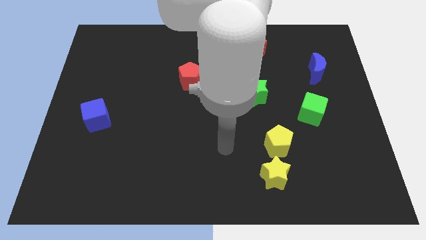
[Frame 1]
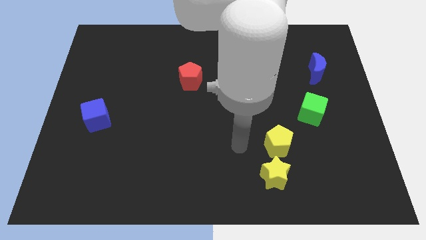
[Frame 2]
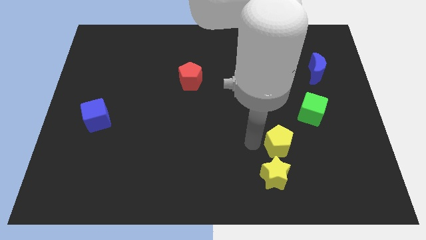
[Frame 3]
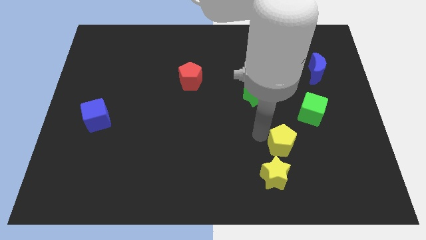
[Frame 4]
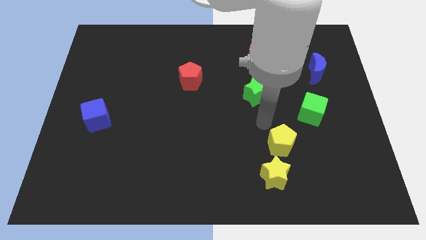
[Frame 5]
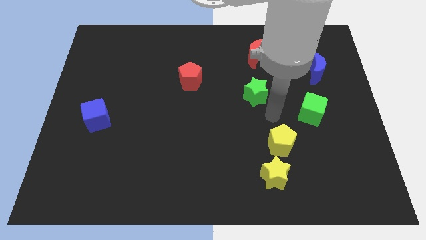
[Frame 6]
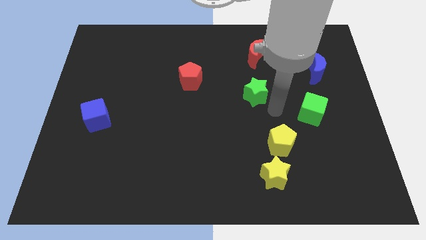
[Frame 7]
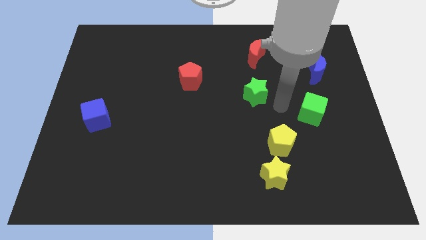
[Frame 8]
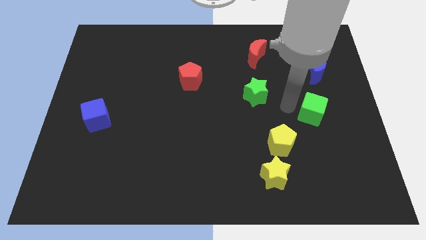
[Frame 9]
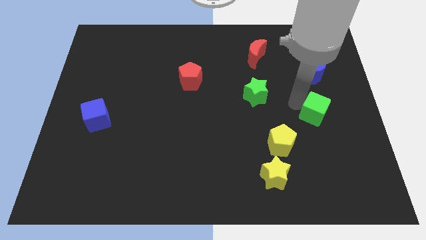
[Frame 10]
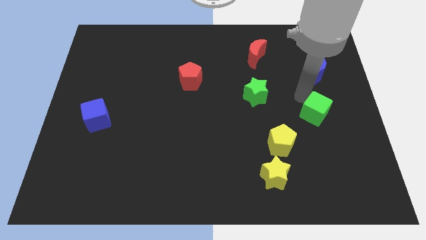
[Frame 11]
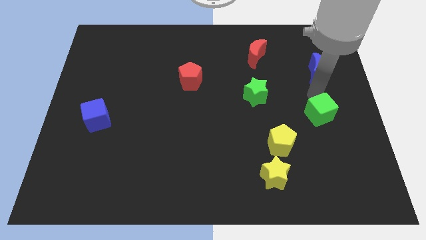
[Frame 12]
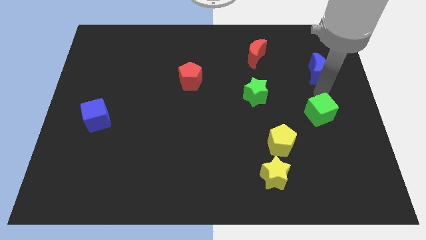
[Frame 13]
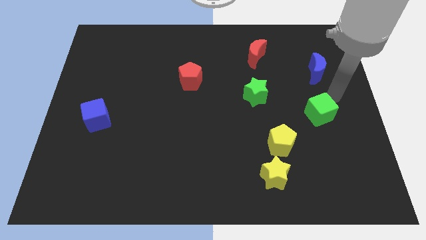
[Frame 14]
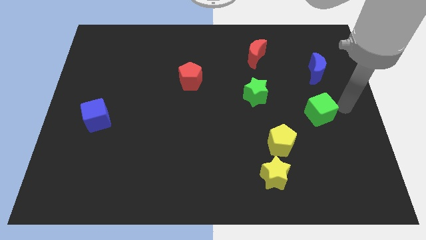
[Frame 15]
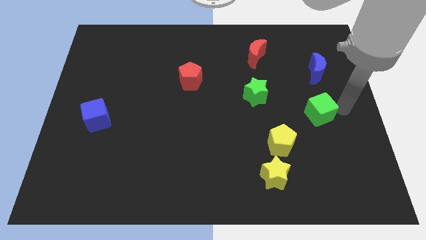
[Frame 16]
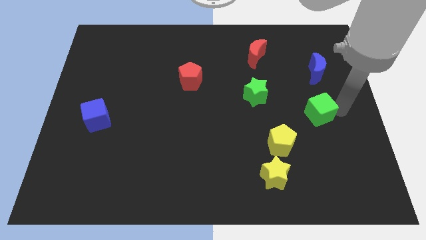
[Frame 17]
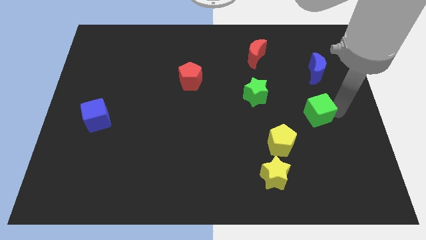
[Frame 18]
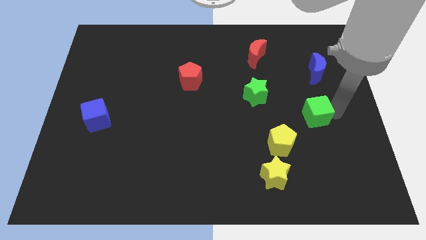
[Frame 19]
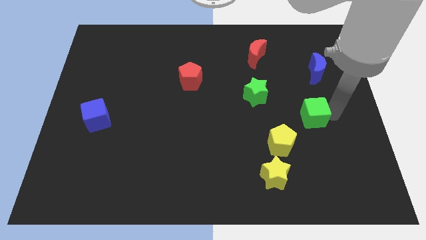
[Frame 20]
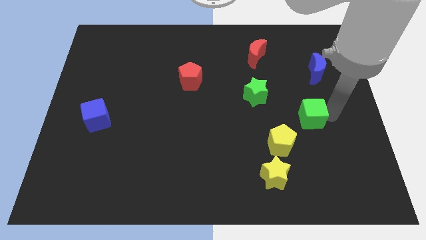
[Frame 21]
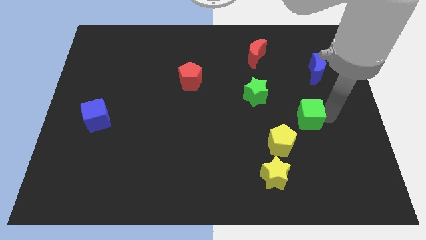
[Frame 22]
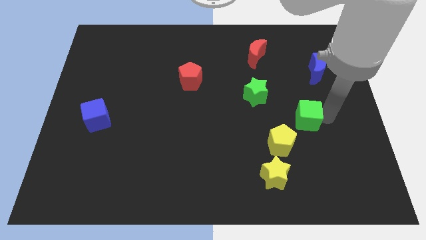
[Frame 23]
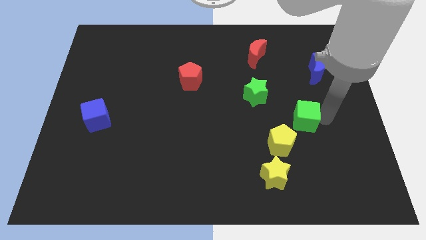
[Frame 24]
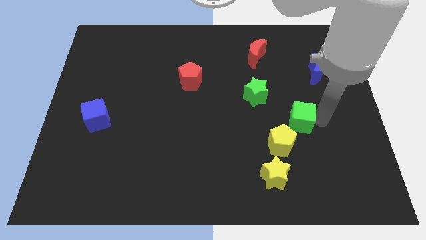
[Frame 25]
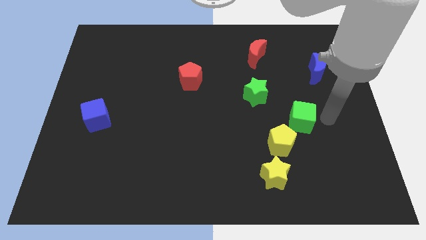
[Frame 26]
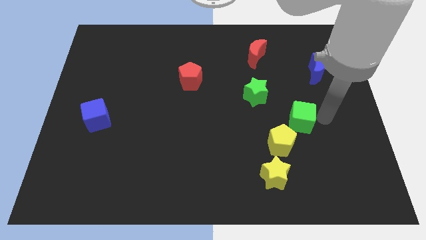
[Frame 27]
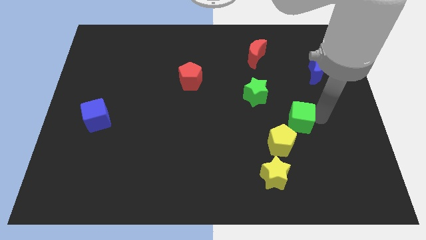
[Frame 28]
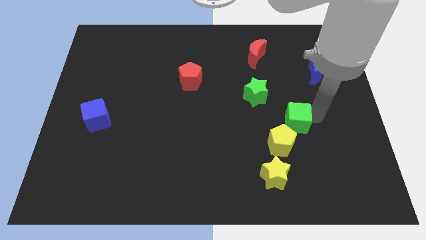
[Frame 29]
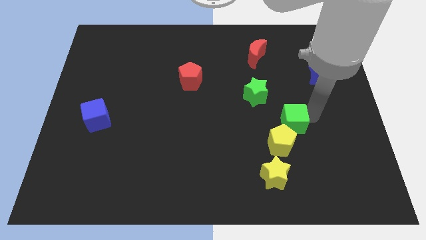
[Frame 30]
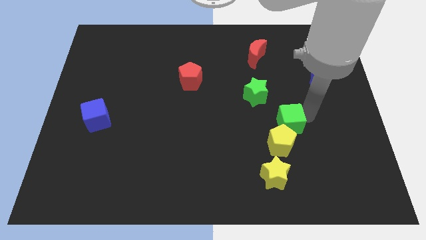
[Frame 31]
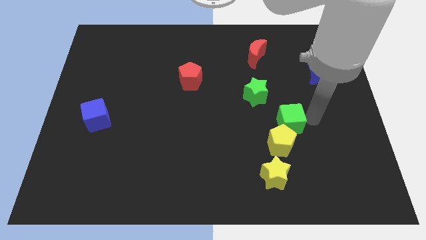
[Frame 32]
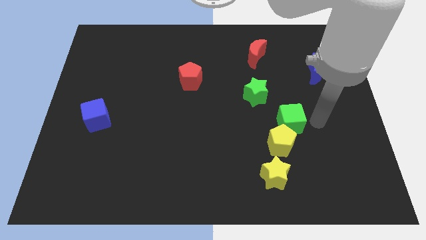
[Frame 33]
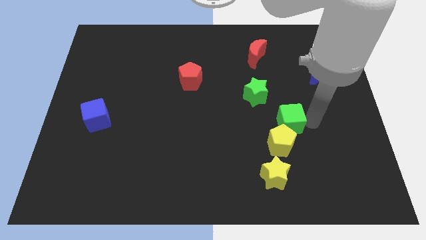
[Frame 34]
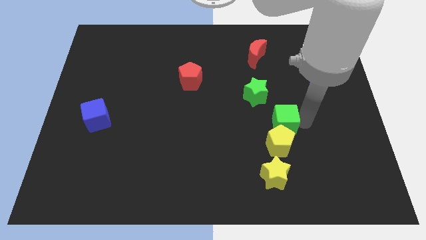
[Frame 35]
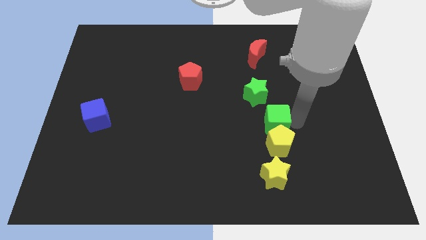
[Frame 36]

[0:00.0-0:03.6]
slide the green cube downwards and then to the left a little

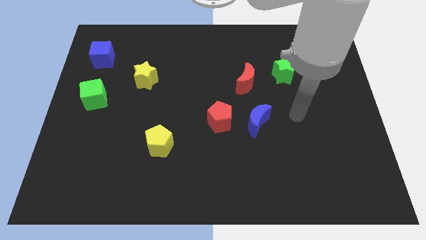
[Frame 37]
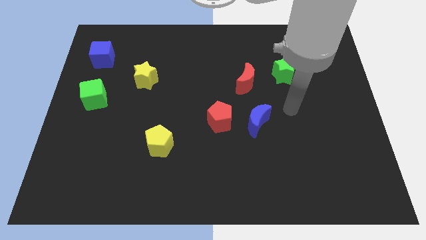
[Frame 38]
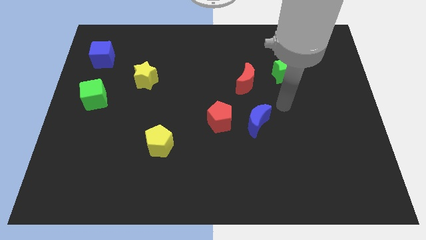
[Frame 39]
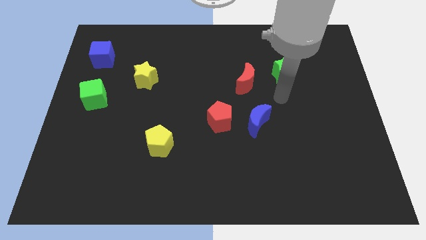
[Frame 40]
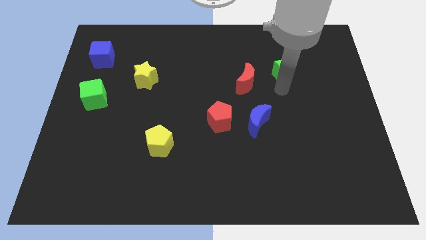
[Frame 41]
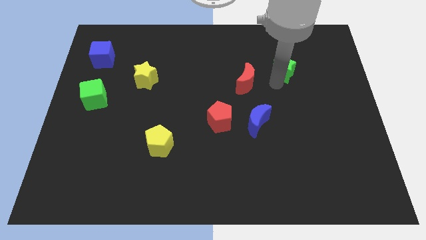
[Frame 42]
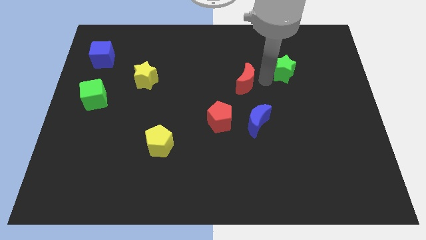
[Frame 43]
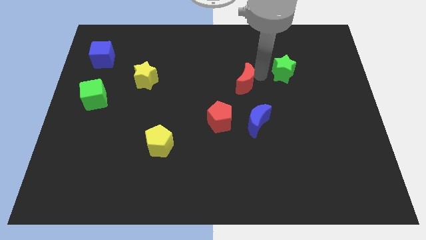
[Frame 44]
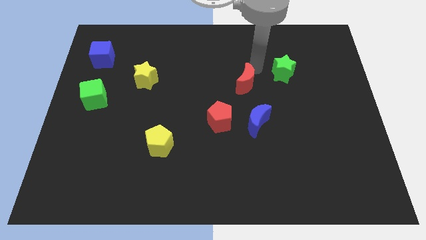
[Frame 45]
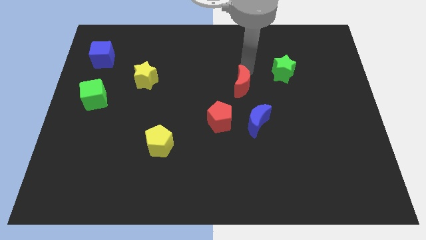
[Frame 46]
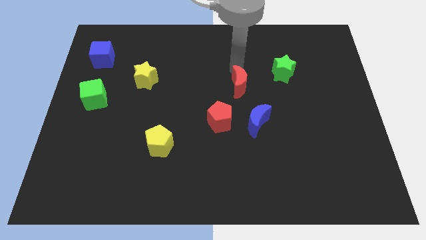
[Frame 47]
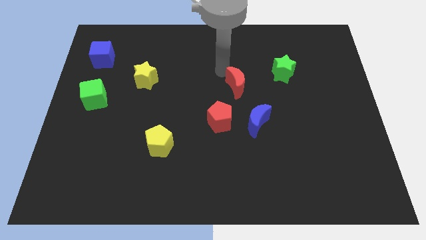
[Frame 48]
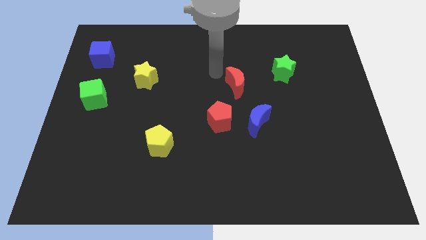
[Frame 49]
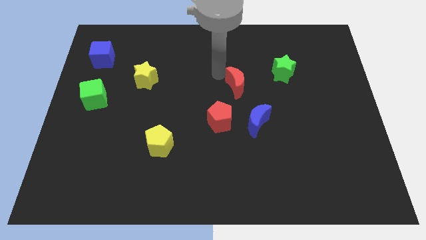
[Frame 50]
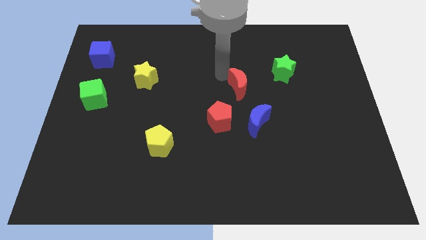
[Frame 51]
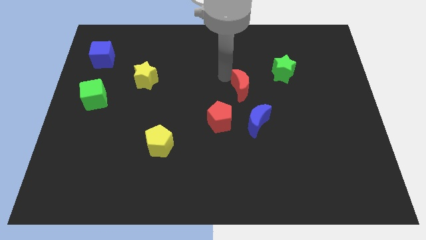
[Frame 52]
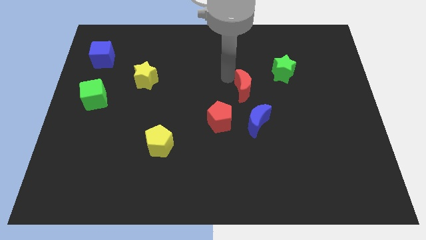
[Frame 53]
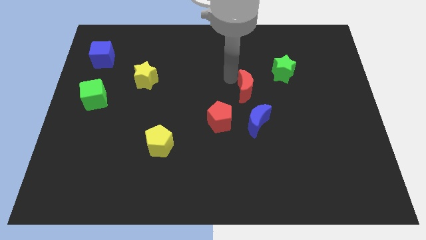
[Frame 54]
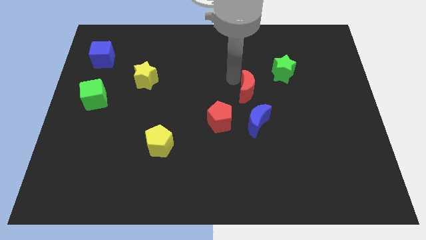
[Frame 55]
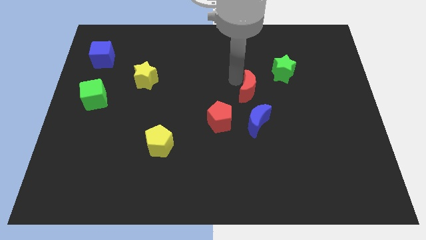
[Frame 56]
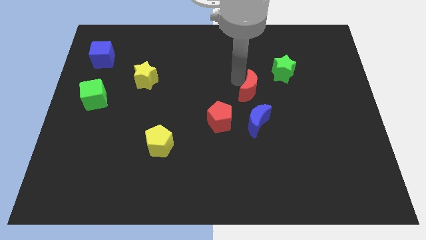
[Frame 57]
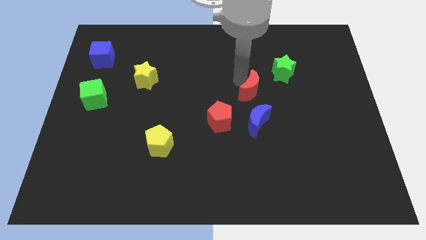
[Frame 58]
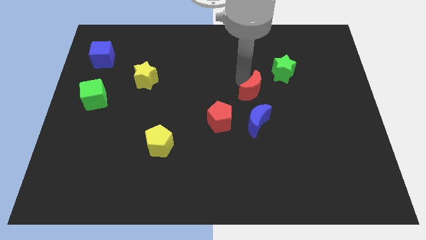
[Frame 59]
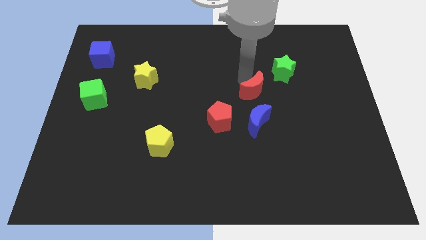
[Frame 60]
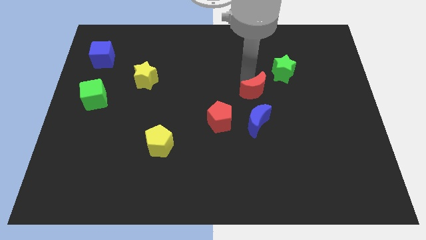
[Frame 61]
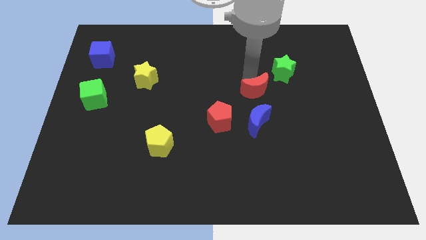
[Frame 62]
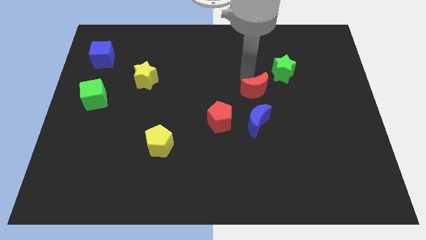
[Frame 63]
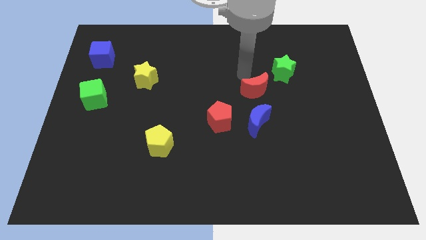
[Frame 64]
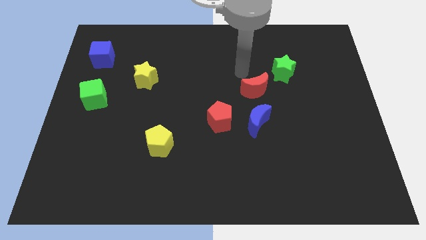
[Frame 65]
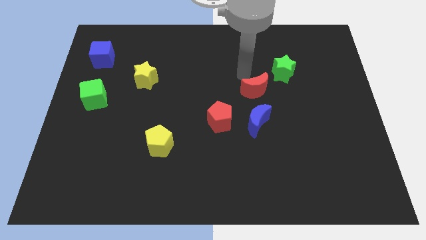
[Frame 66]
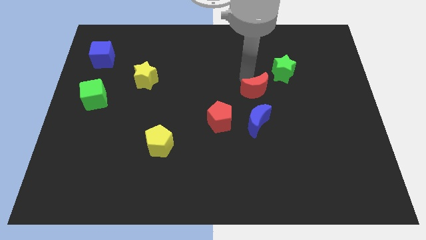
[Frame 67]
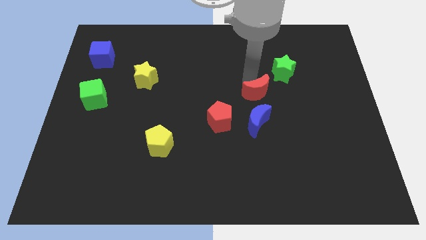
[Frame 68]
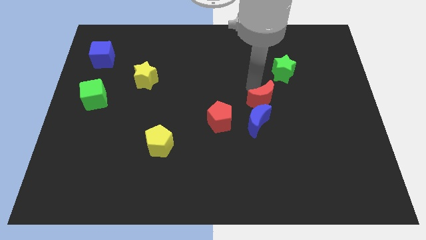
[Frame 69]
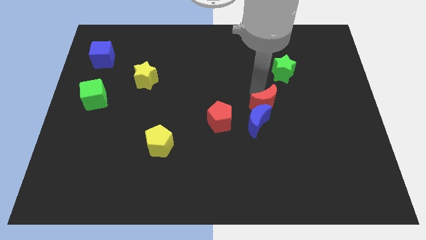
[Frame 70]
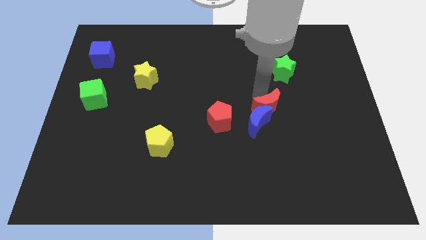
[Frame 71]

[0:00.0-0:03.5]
slide the red moon a little bit downwards

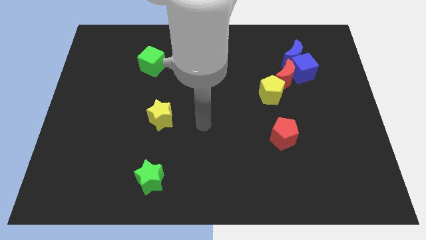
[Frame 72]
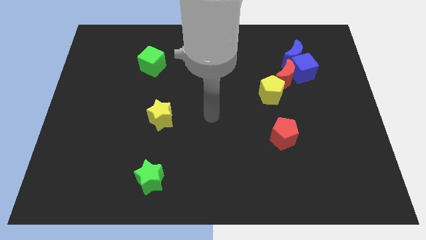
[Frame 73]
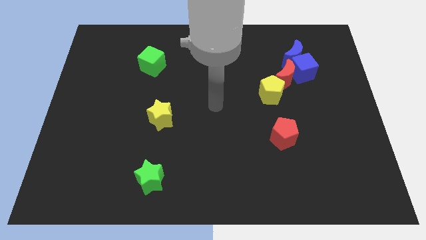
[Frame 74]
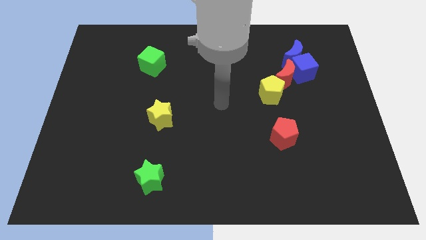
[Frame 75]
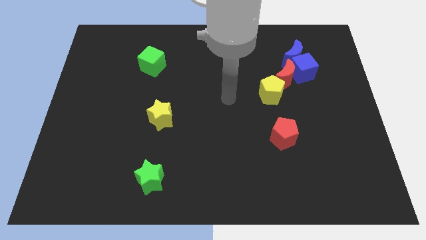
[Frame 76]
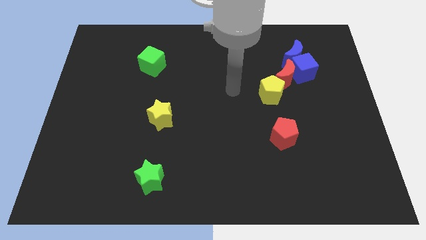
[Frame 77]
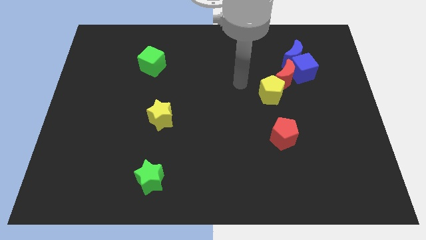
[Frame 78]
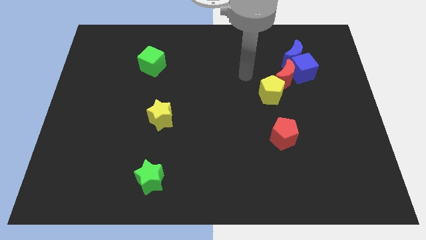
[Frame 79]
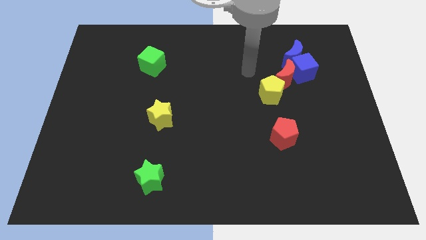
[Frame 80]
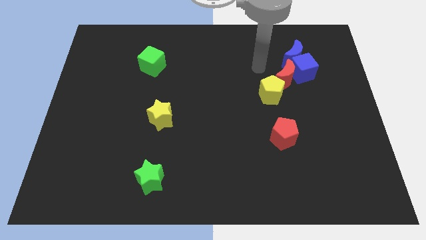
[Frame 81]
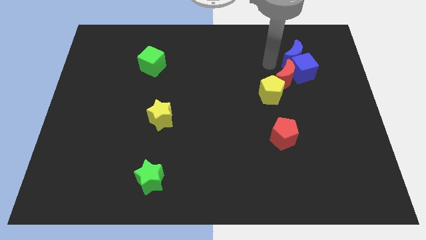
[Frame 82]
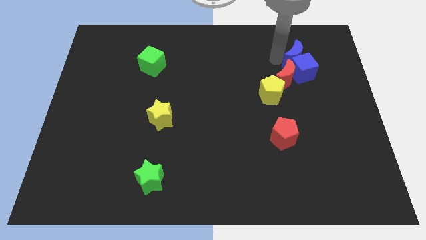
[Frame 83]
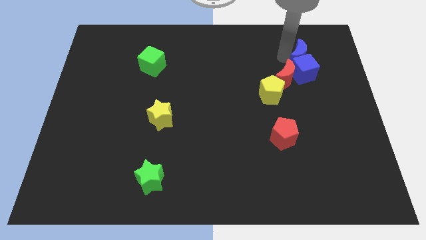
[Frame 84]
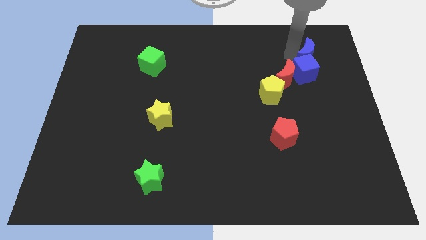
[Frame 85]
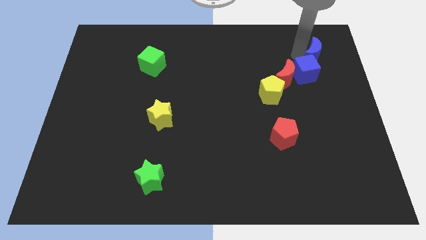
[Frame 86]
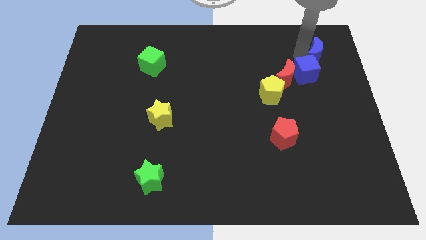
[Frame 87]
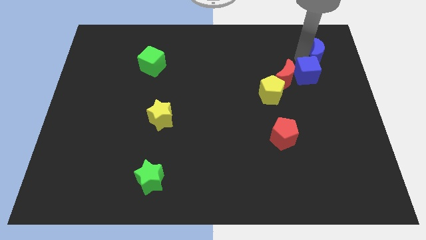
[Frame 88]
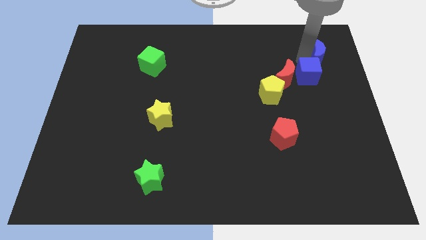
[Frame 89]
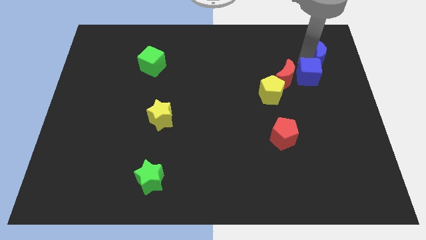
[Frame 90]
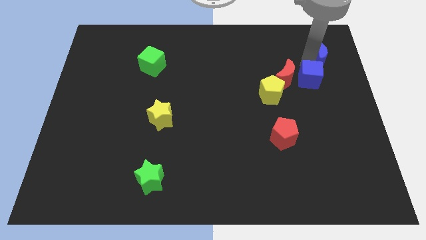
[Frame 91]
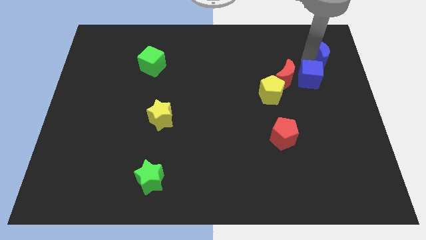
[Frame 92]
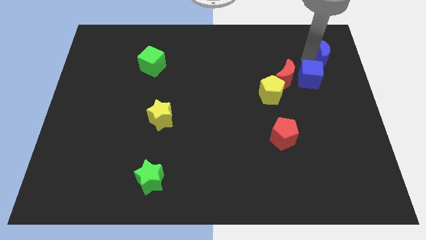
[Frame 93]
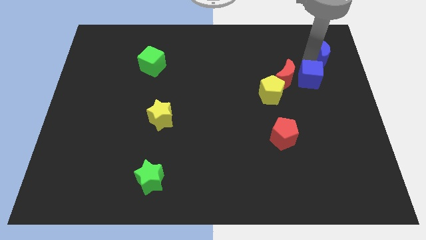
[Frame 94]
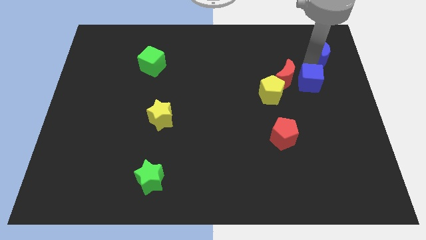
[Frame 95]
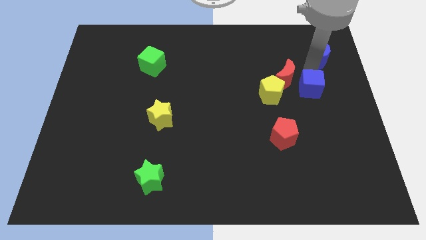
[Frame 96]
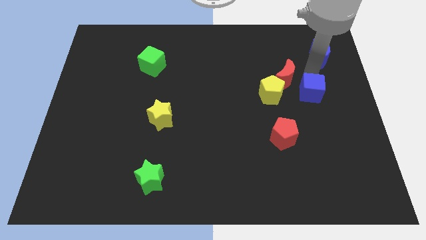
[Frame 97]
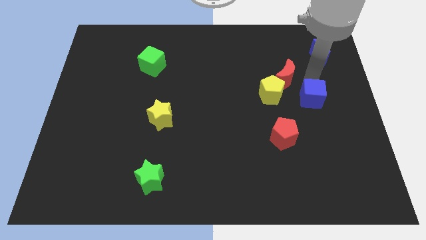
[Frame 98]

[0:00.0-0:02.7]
slightly push the blue cube down
